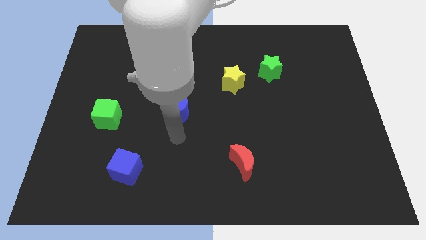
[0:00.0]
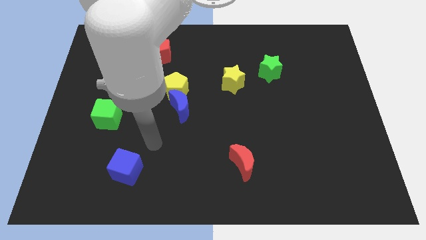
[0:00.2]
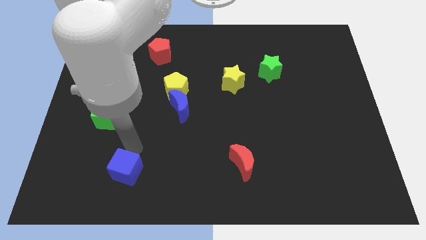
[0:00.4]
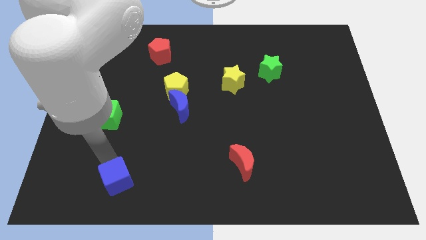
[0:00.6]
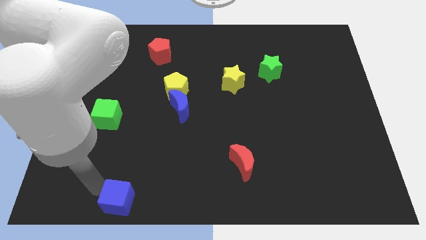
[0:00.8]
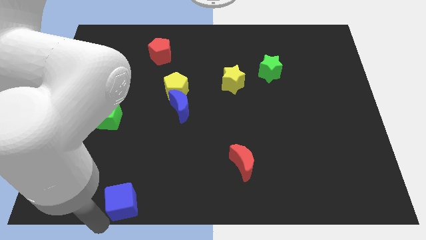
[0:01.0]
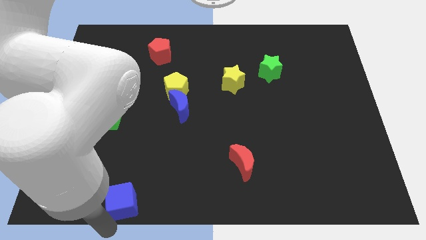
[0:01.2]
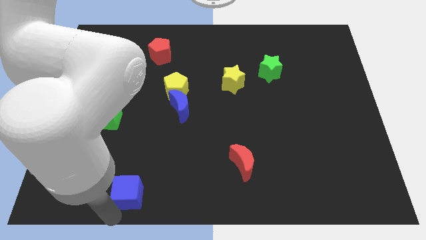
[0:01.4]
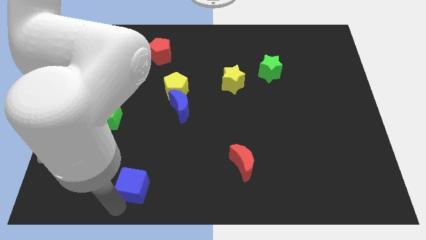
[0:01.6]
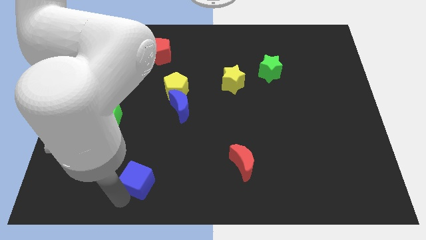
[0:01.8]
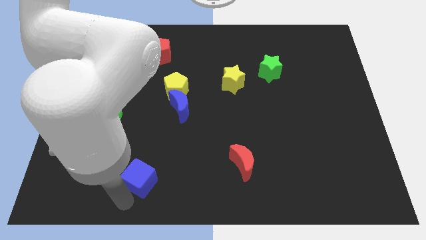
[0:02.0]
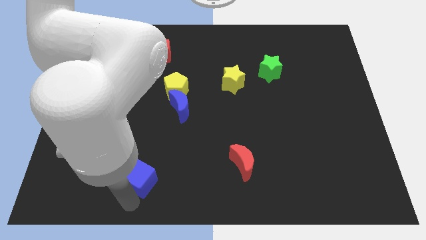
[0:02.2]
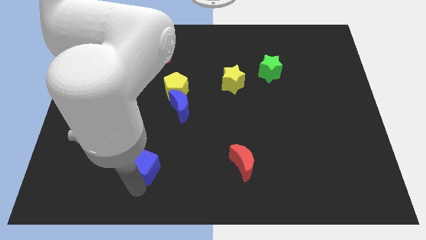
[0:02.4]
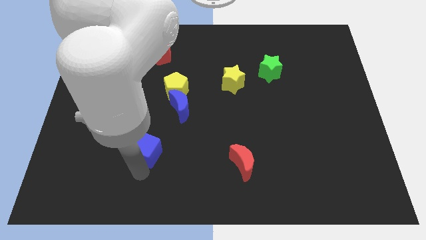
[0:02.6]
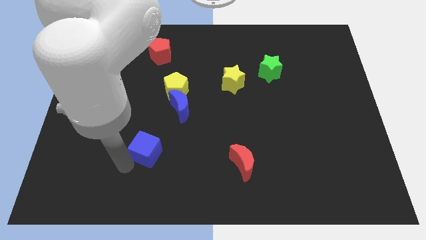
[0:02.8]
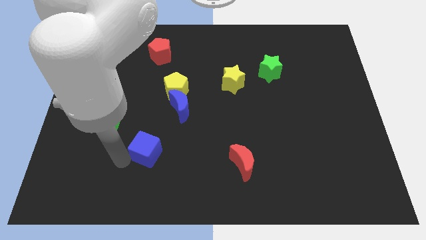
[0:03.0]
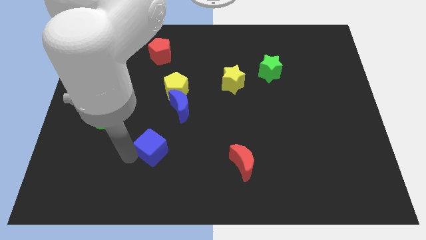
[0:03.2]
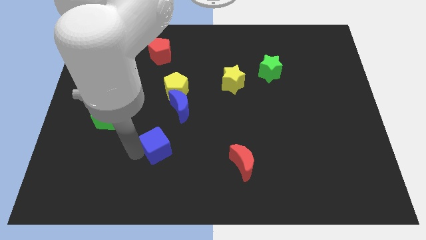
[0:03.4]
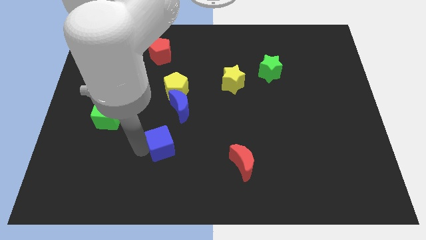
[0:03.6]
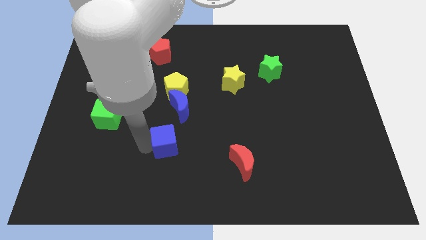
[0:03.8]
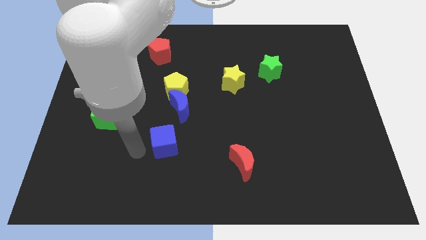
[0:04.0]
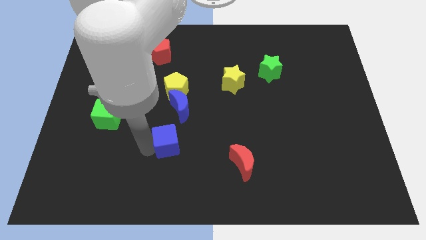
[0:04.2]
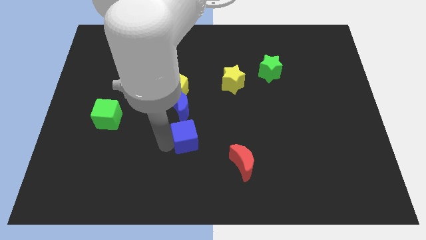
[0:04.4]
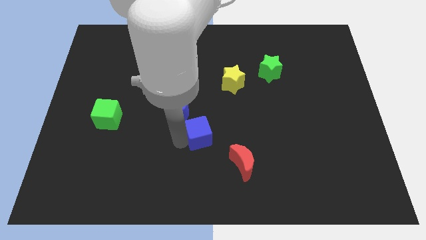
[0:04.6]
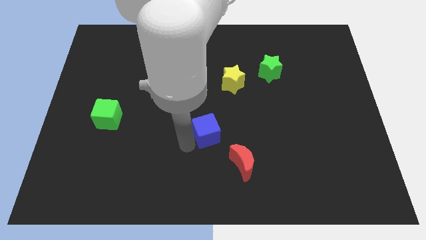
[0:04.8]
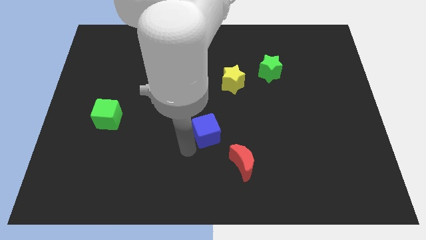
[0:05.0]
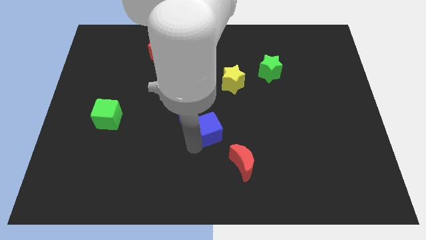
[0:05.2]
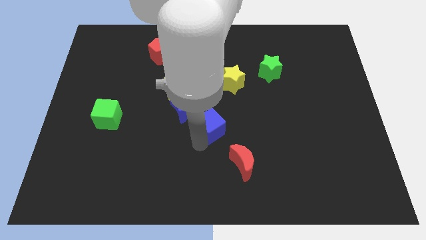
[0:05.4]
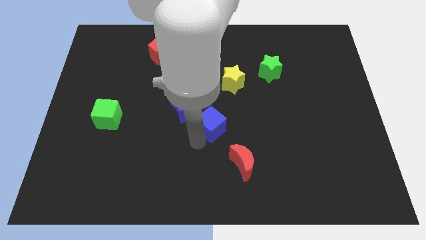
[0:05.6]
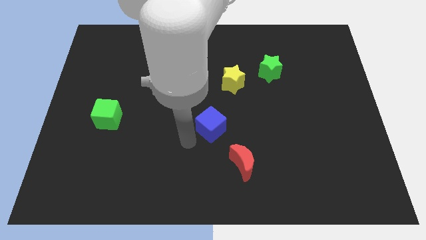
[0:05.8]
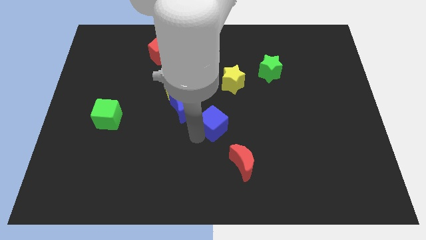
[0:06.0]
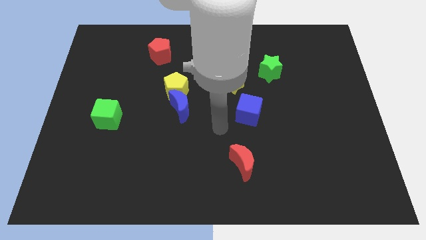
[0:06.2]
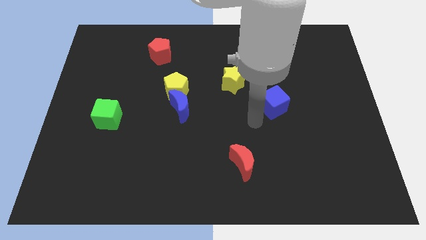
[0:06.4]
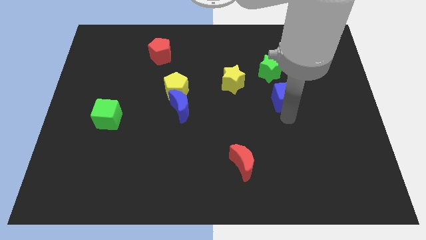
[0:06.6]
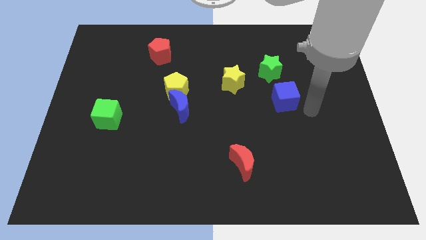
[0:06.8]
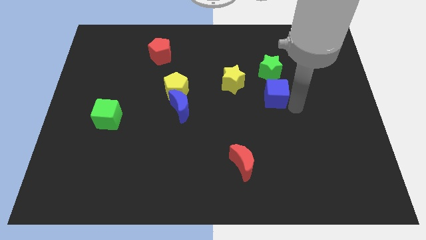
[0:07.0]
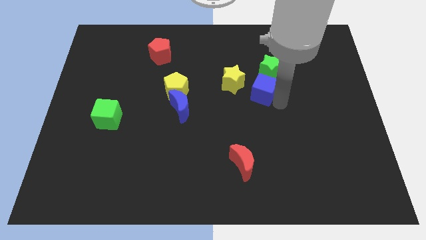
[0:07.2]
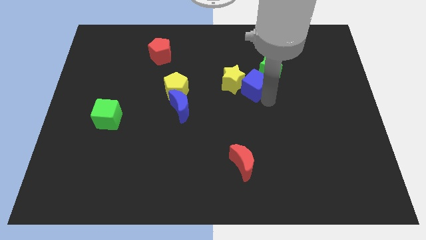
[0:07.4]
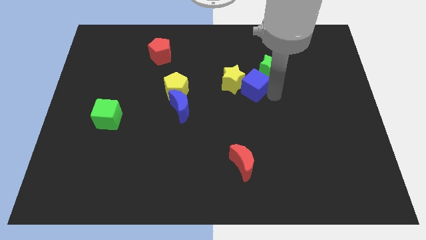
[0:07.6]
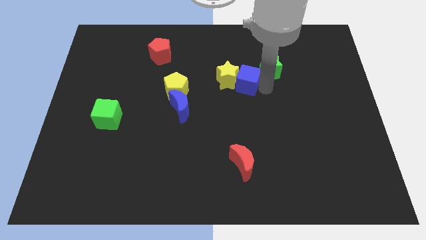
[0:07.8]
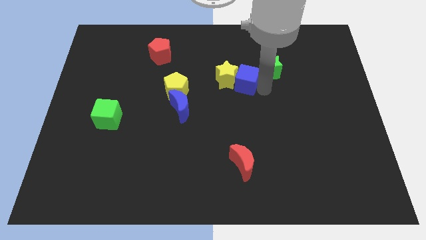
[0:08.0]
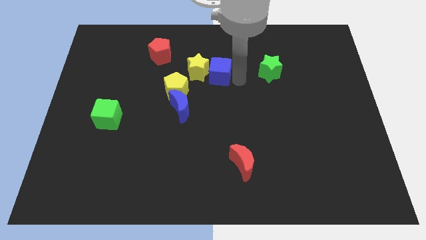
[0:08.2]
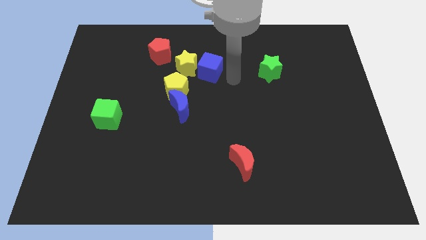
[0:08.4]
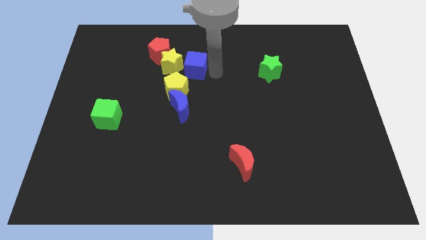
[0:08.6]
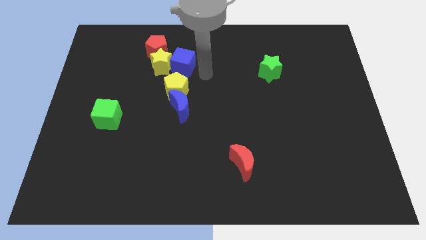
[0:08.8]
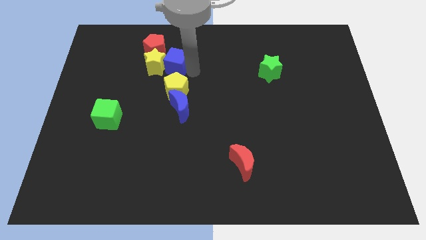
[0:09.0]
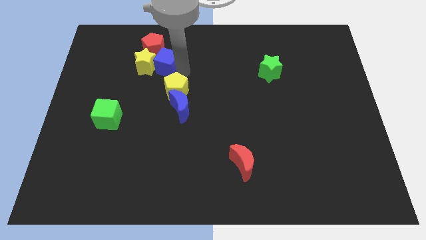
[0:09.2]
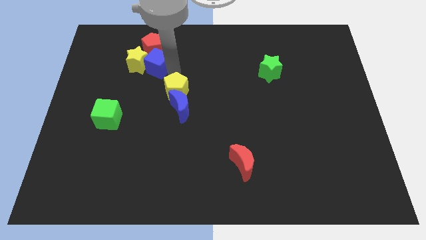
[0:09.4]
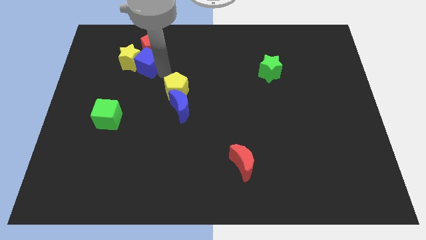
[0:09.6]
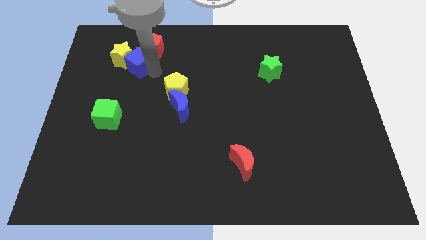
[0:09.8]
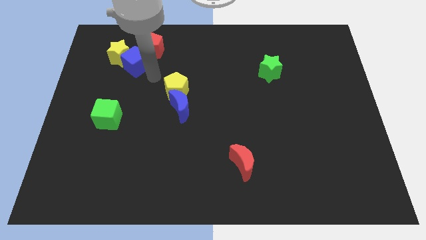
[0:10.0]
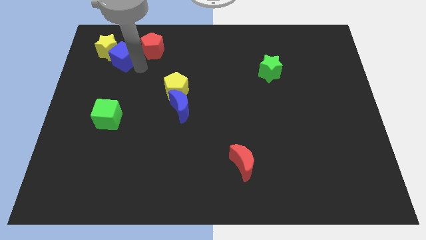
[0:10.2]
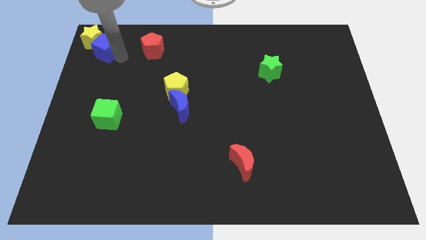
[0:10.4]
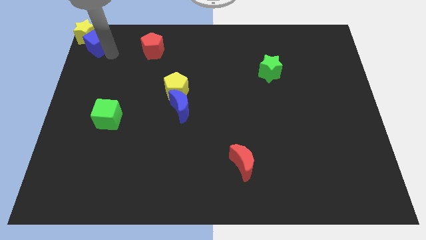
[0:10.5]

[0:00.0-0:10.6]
slide the blue cube to the top left

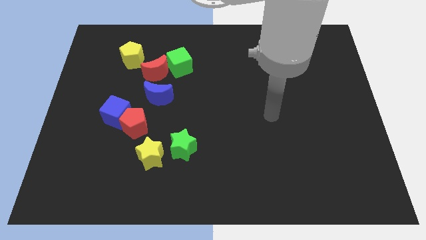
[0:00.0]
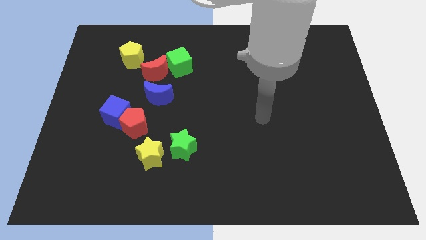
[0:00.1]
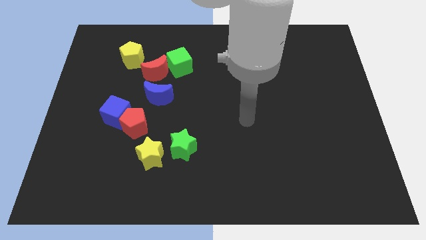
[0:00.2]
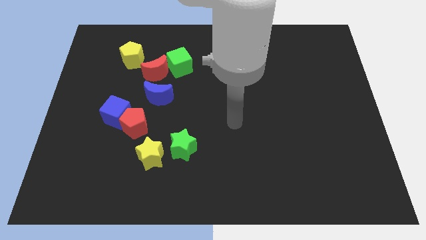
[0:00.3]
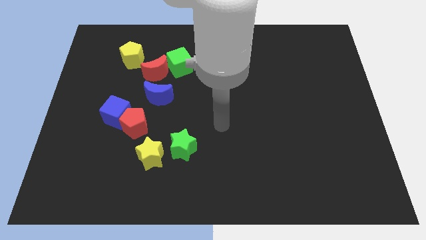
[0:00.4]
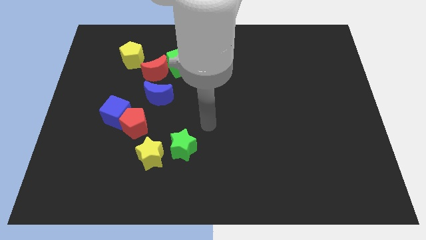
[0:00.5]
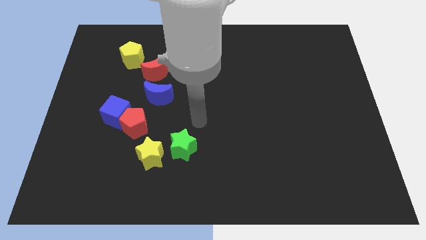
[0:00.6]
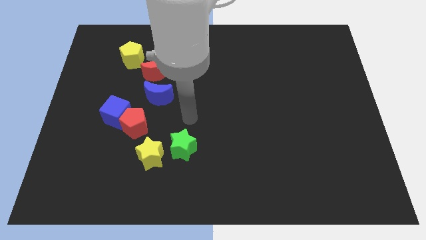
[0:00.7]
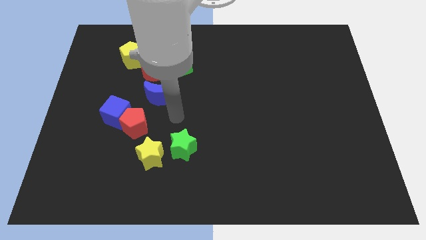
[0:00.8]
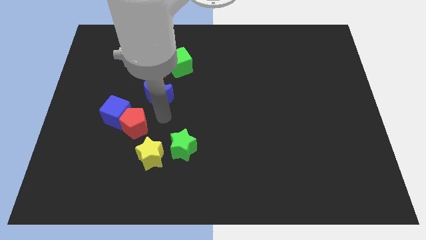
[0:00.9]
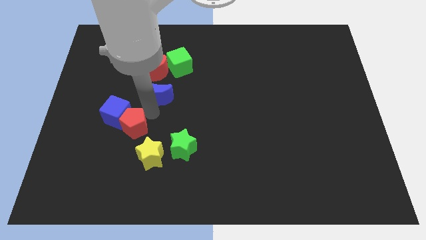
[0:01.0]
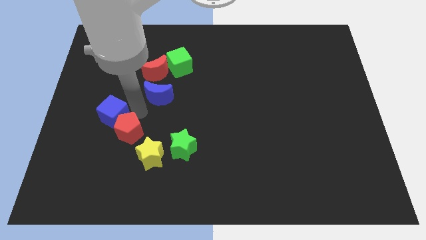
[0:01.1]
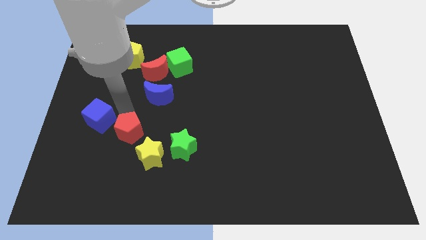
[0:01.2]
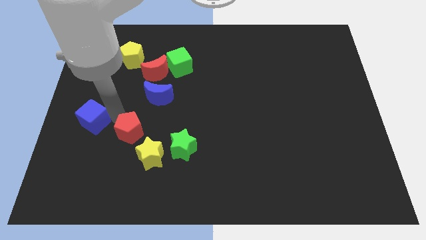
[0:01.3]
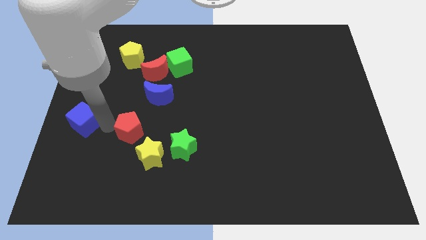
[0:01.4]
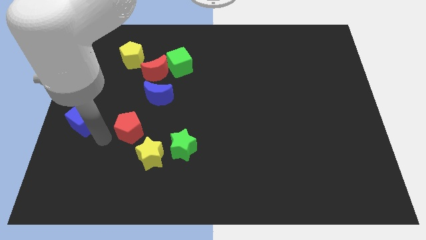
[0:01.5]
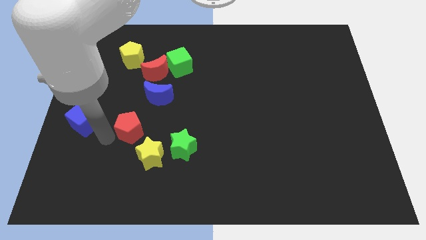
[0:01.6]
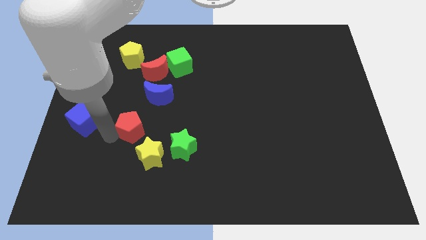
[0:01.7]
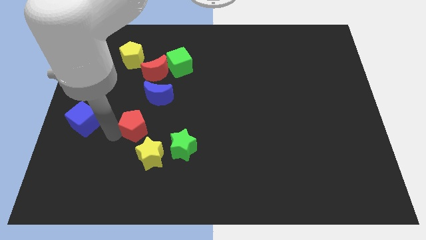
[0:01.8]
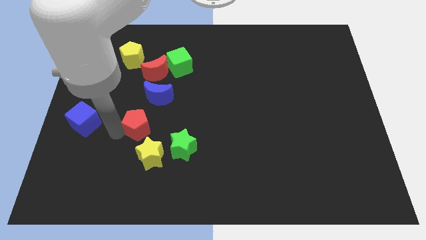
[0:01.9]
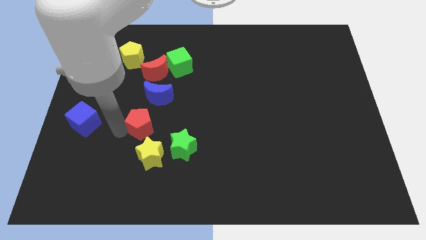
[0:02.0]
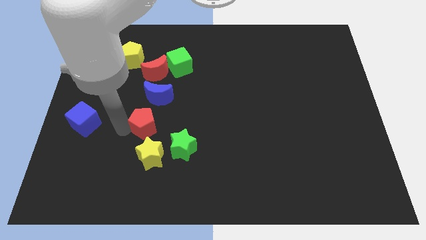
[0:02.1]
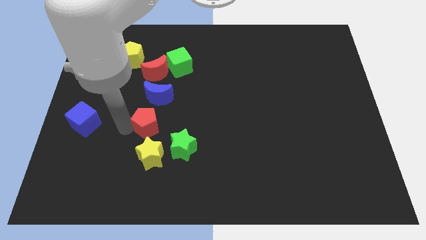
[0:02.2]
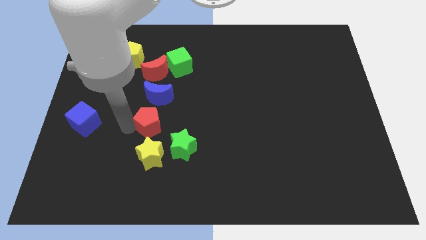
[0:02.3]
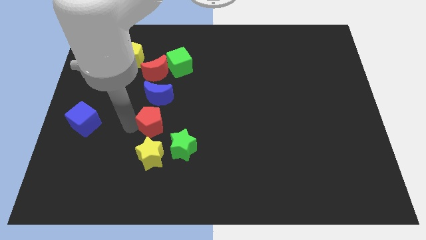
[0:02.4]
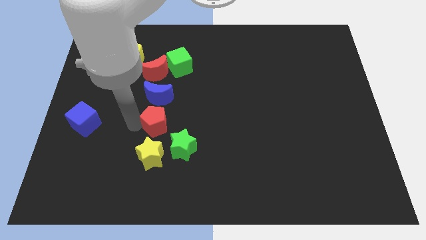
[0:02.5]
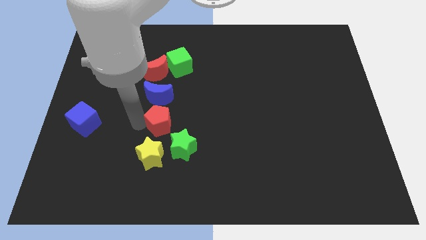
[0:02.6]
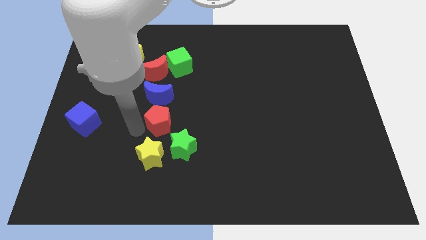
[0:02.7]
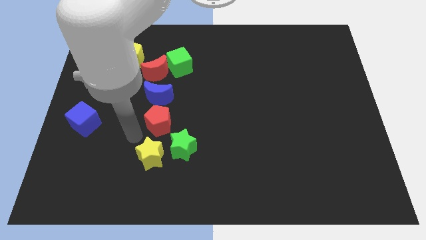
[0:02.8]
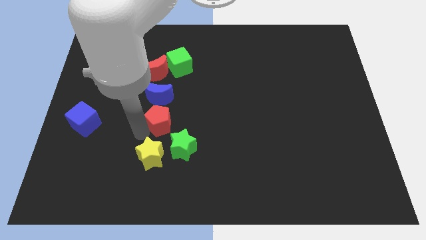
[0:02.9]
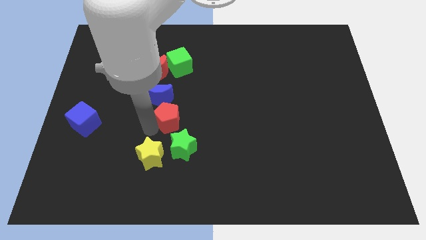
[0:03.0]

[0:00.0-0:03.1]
put the red pentagon to the center

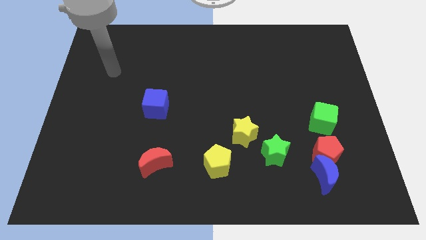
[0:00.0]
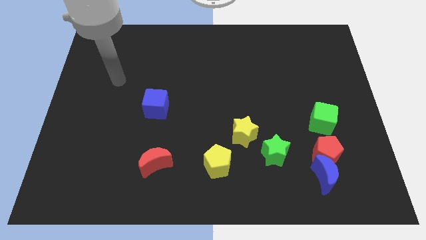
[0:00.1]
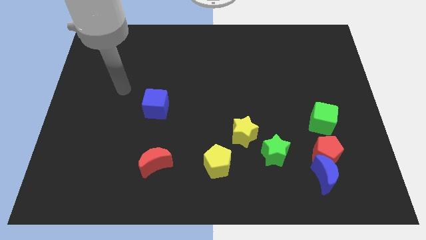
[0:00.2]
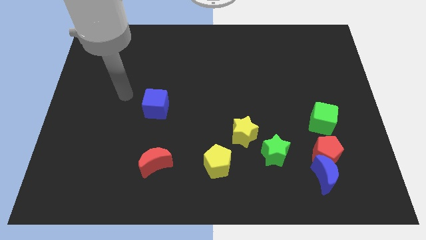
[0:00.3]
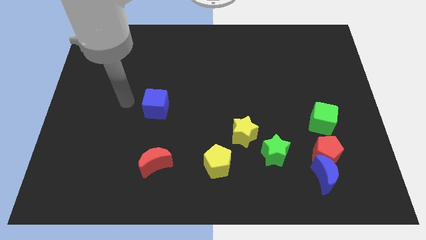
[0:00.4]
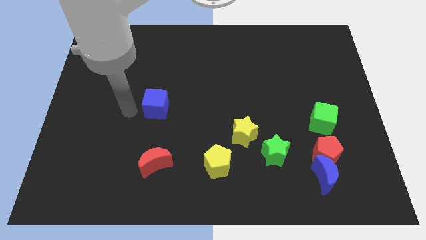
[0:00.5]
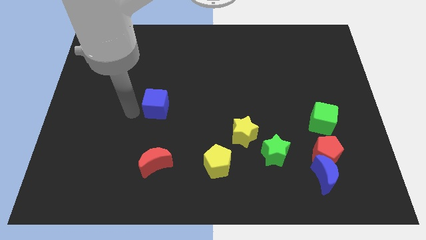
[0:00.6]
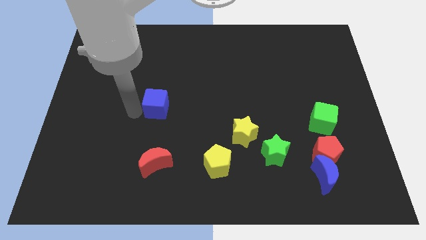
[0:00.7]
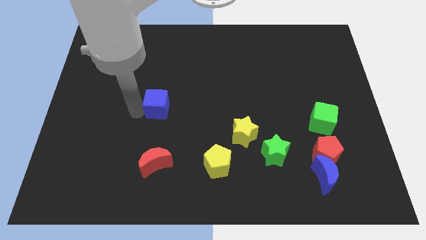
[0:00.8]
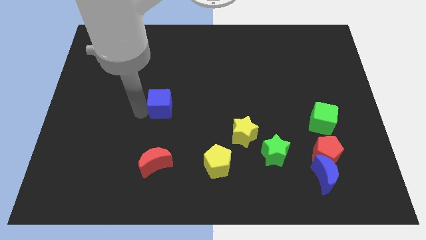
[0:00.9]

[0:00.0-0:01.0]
put the blue cube to the middle of the board
